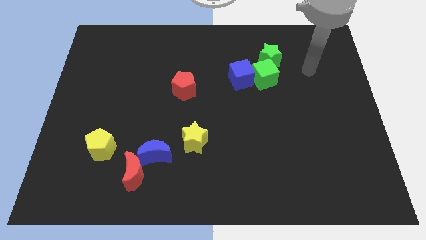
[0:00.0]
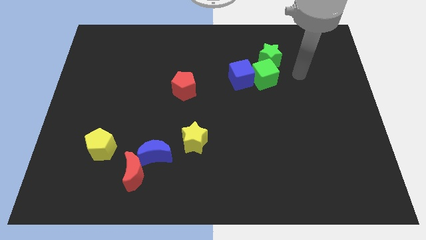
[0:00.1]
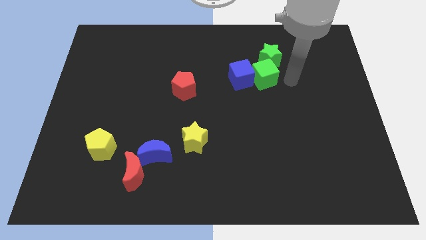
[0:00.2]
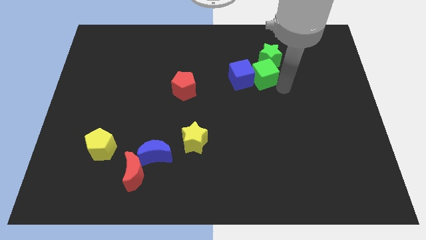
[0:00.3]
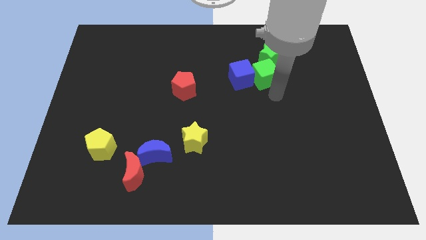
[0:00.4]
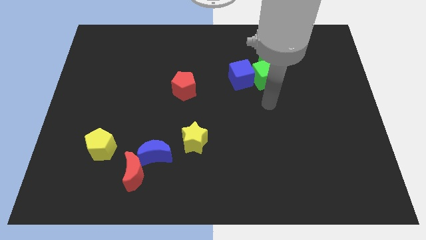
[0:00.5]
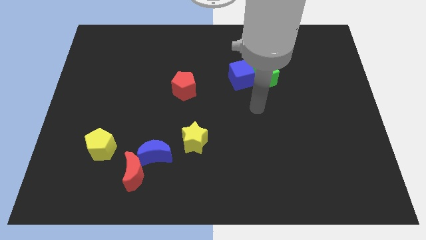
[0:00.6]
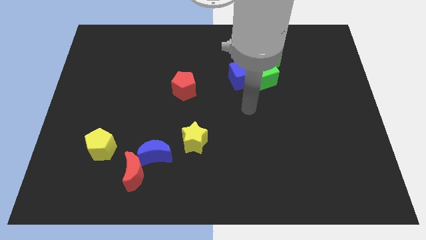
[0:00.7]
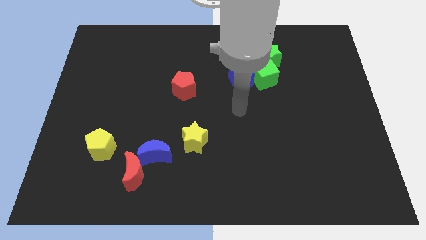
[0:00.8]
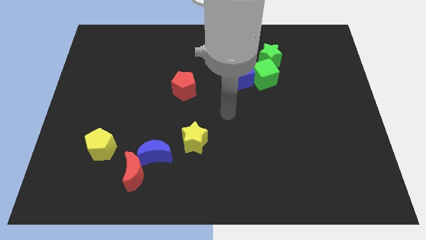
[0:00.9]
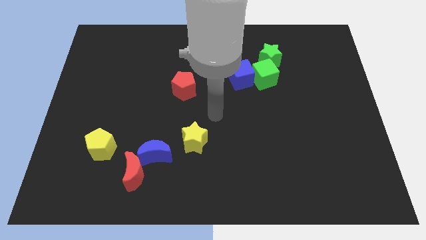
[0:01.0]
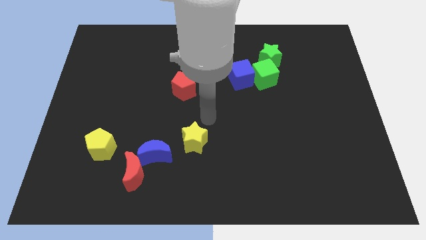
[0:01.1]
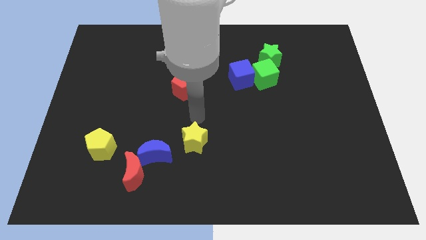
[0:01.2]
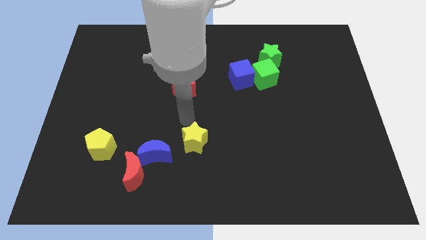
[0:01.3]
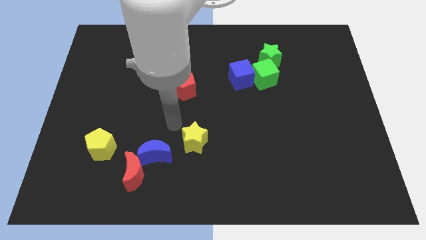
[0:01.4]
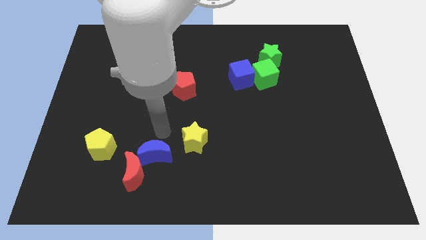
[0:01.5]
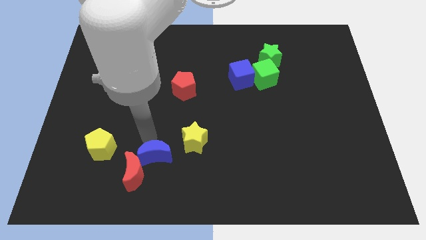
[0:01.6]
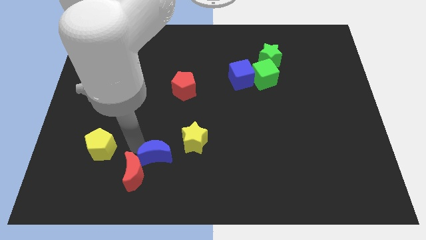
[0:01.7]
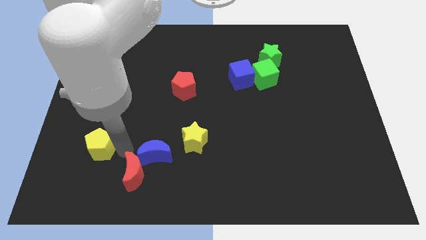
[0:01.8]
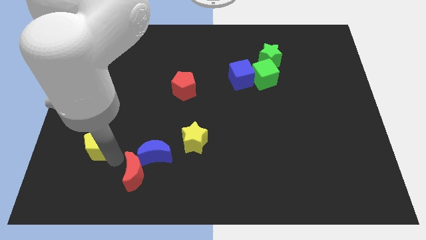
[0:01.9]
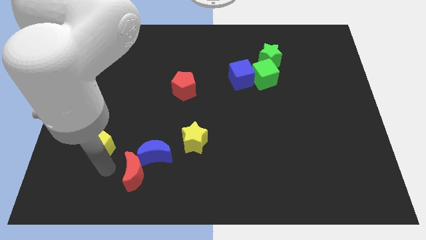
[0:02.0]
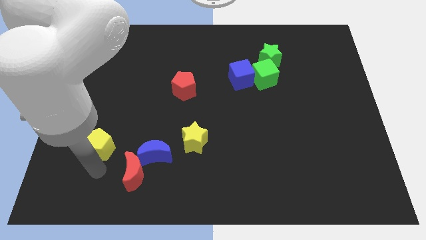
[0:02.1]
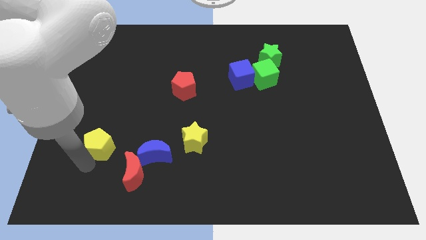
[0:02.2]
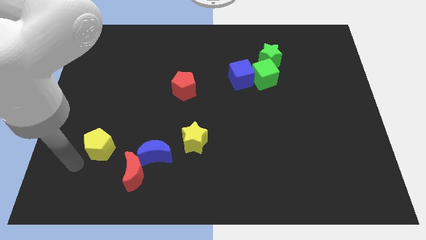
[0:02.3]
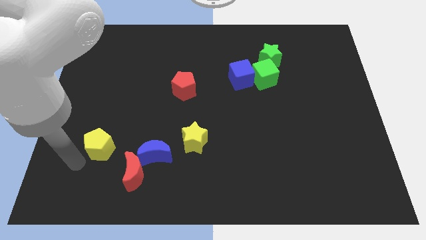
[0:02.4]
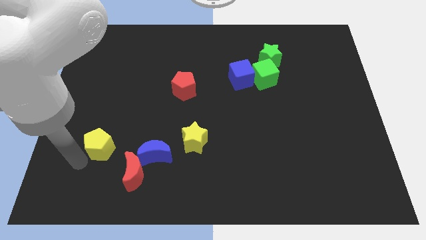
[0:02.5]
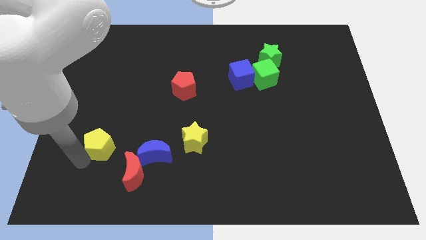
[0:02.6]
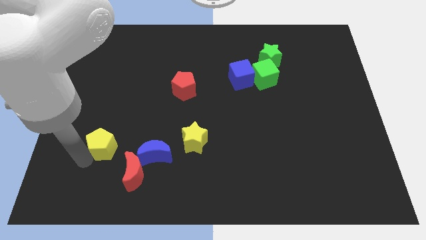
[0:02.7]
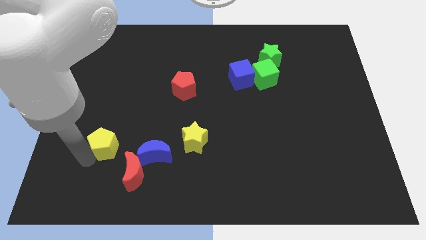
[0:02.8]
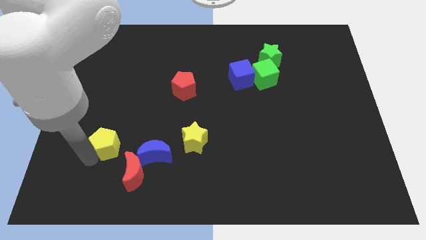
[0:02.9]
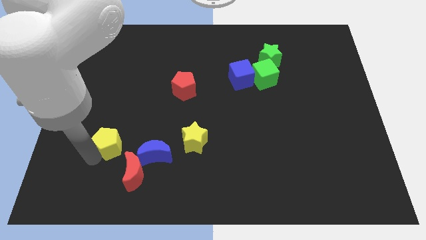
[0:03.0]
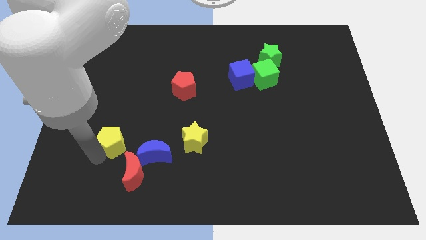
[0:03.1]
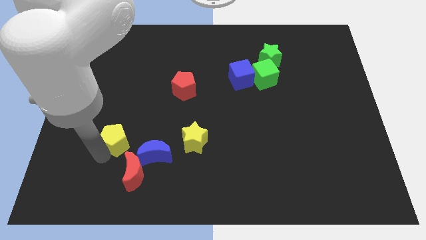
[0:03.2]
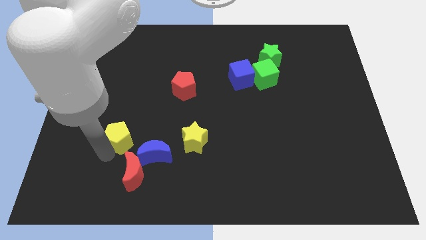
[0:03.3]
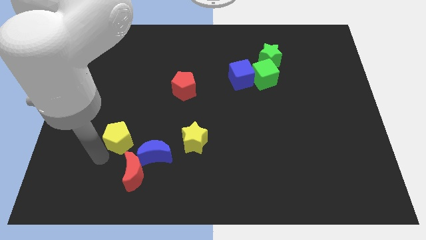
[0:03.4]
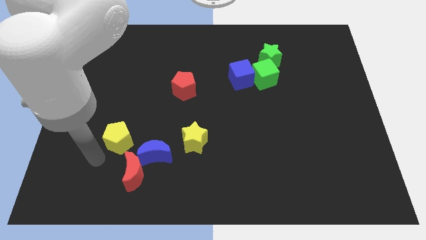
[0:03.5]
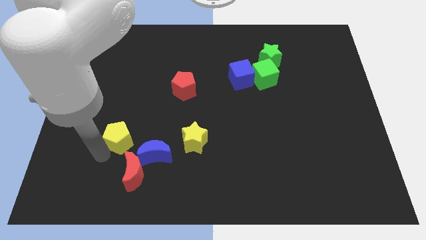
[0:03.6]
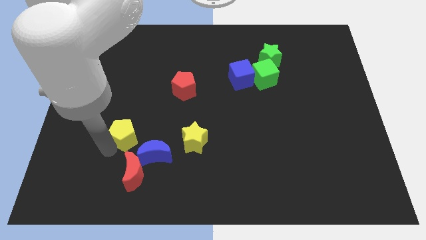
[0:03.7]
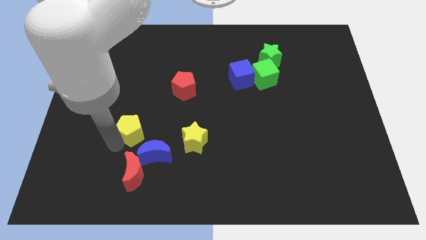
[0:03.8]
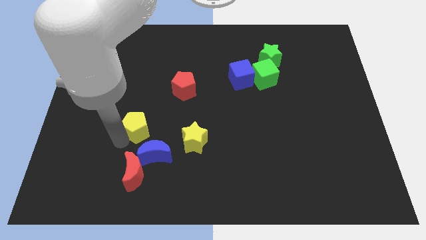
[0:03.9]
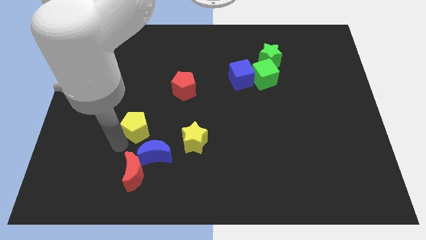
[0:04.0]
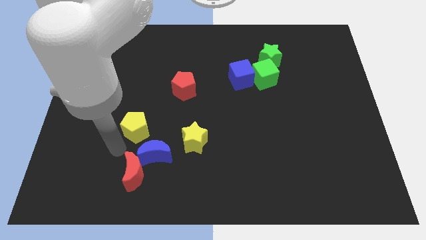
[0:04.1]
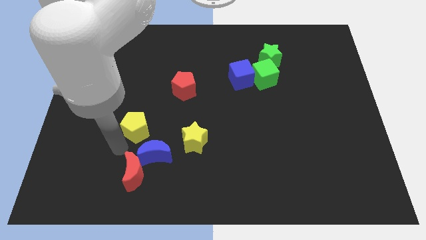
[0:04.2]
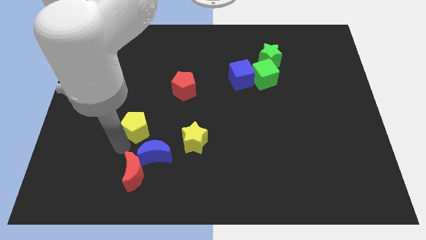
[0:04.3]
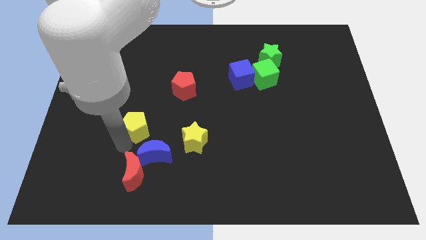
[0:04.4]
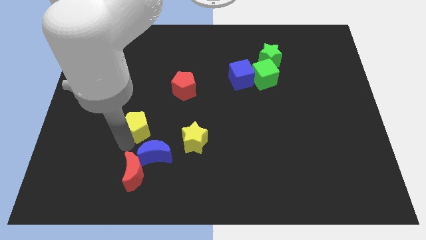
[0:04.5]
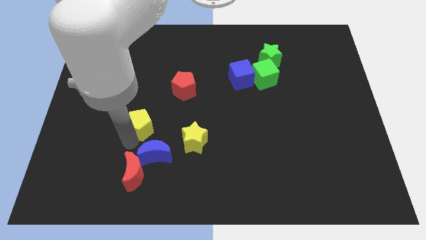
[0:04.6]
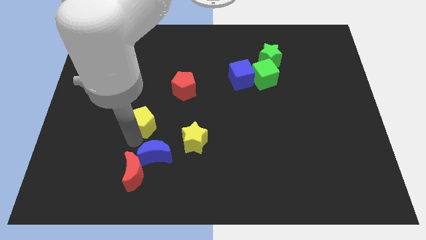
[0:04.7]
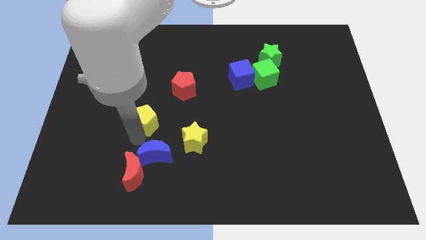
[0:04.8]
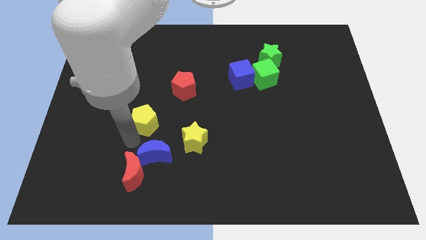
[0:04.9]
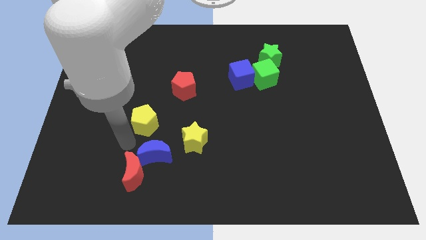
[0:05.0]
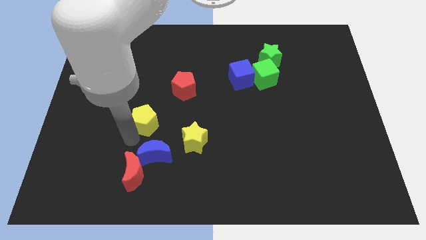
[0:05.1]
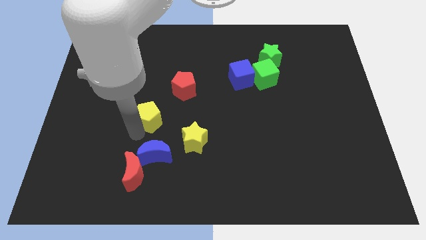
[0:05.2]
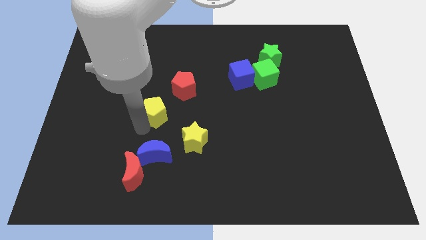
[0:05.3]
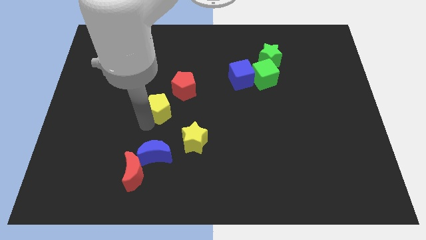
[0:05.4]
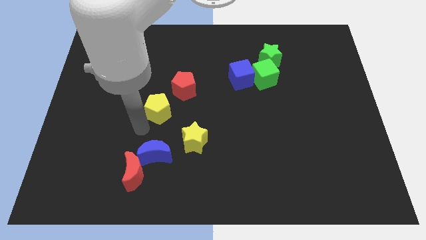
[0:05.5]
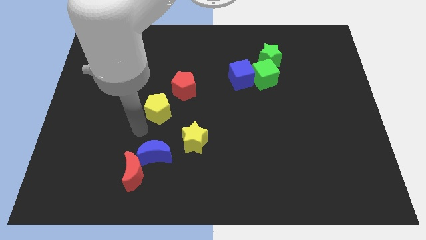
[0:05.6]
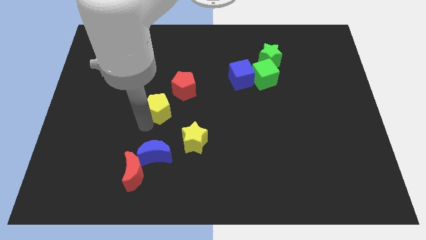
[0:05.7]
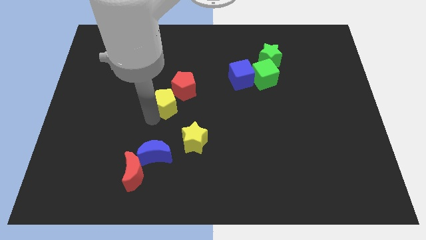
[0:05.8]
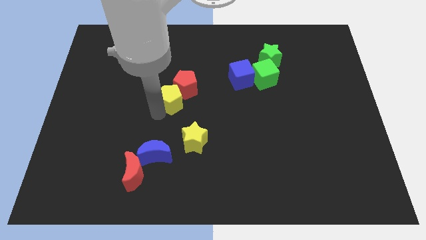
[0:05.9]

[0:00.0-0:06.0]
slide the yellow pentagon towards the red pentagon

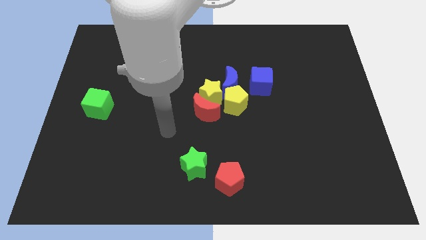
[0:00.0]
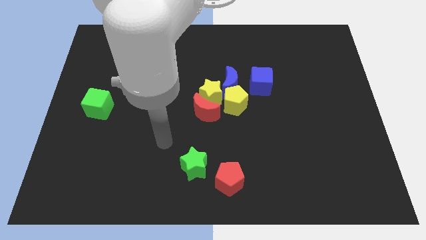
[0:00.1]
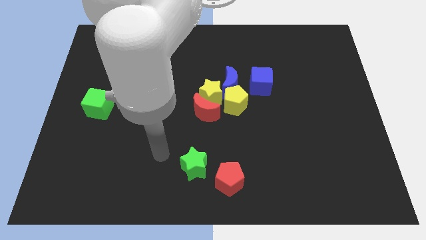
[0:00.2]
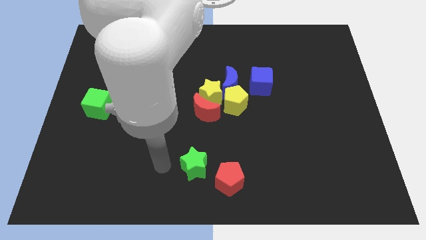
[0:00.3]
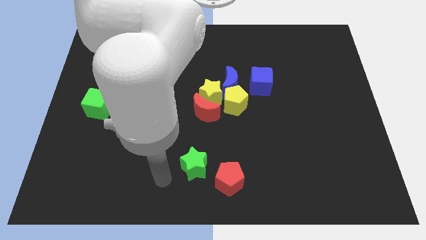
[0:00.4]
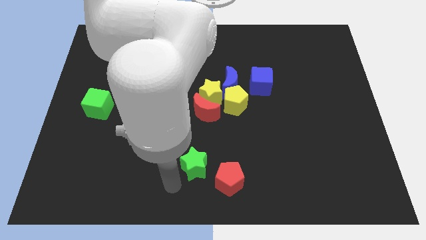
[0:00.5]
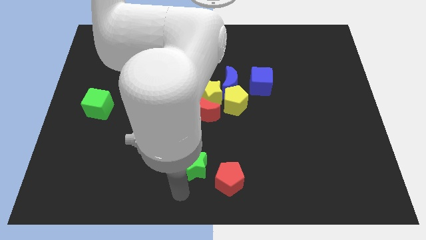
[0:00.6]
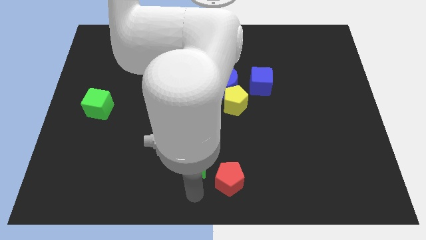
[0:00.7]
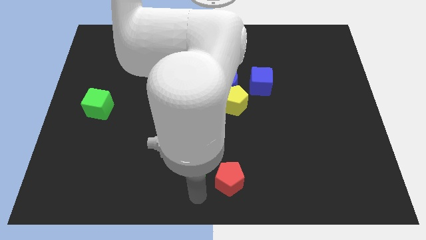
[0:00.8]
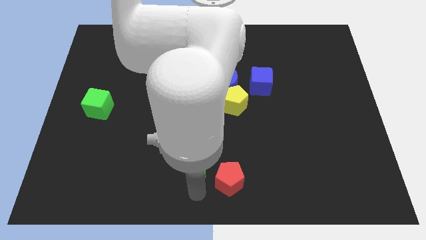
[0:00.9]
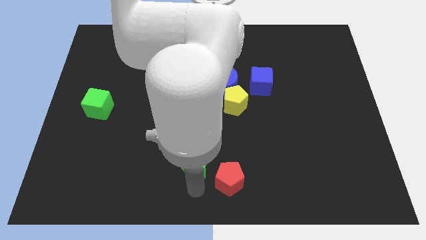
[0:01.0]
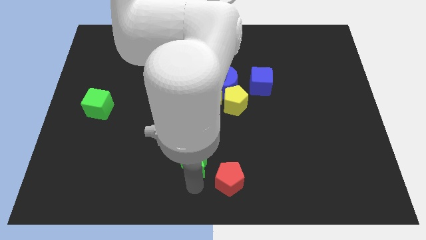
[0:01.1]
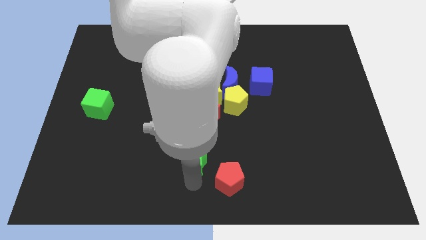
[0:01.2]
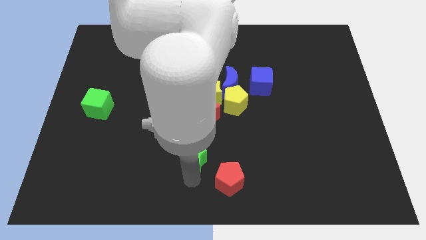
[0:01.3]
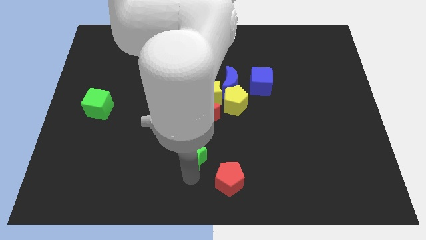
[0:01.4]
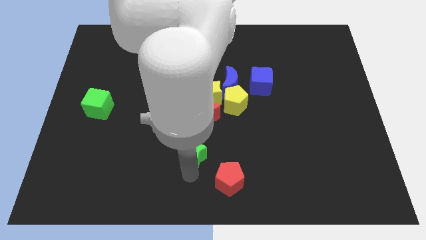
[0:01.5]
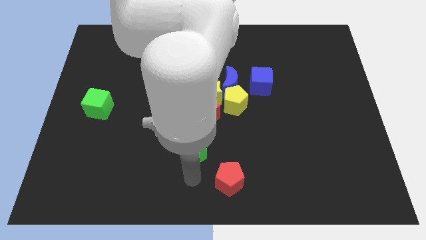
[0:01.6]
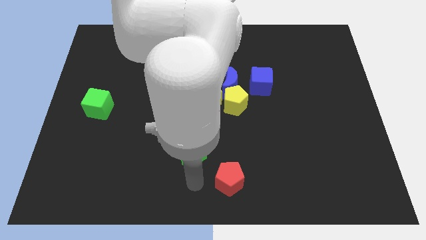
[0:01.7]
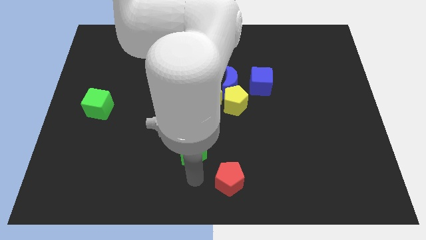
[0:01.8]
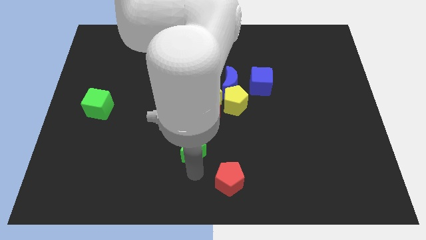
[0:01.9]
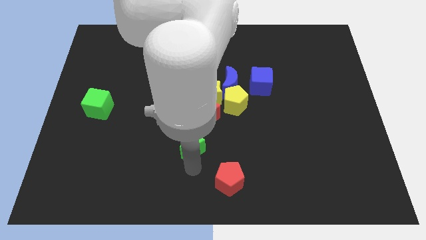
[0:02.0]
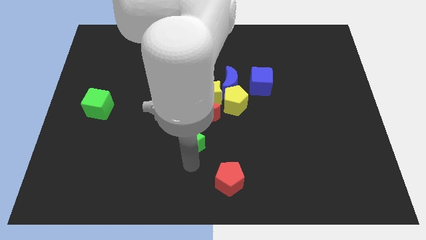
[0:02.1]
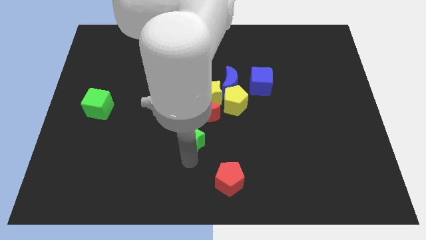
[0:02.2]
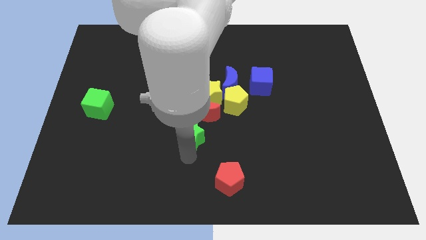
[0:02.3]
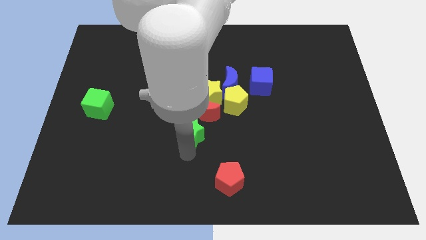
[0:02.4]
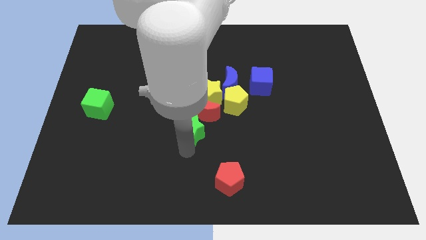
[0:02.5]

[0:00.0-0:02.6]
slide the green star to the red moon
